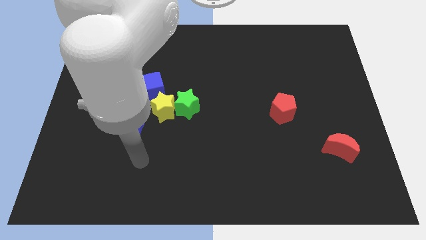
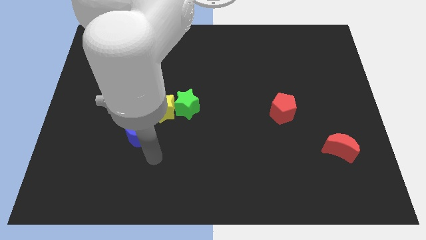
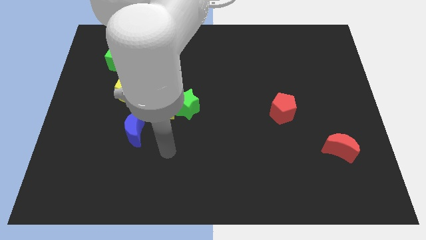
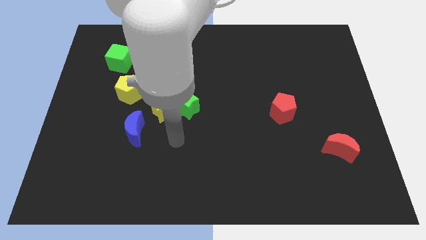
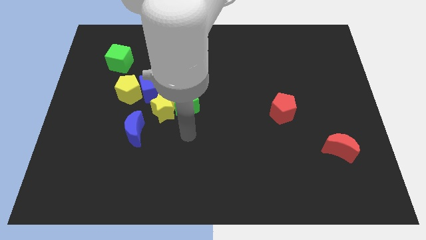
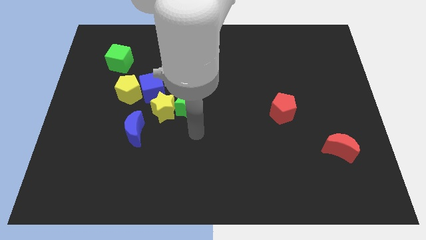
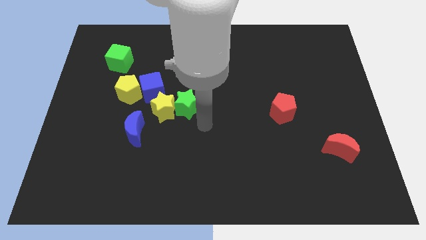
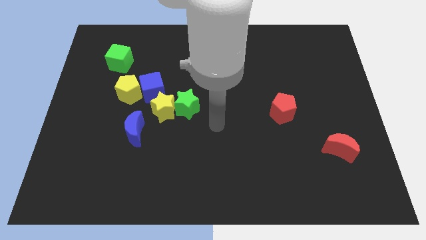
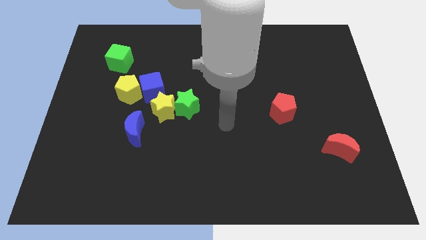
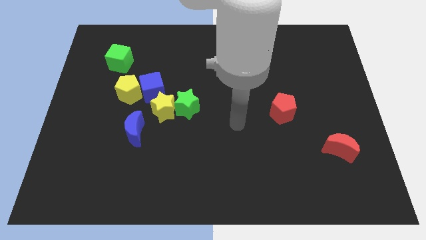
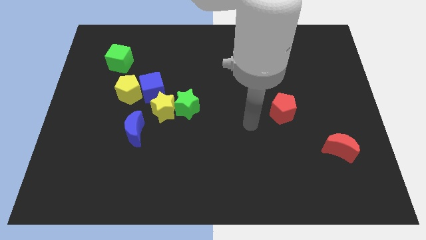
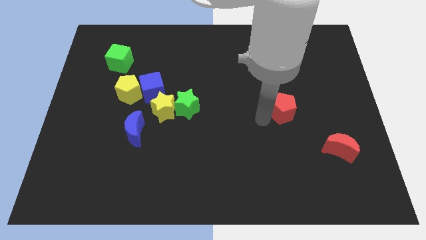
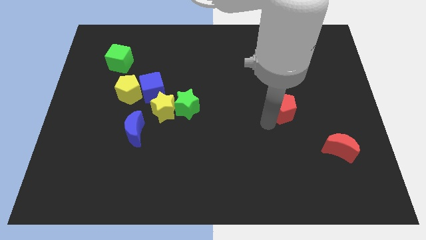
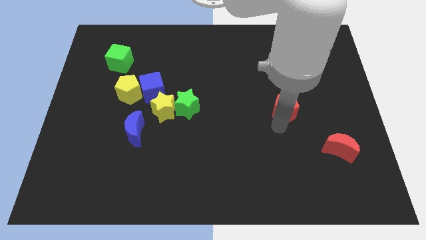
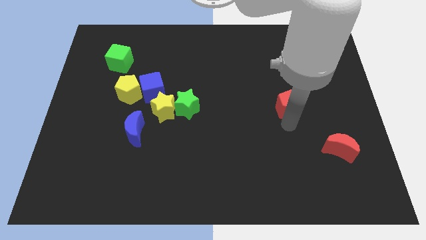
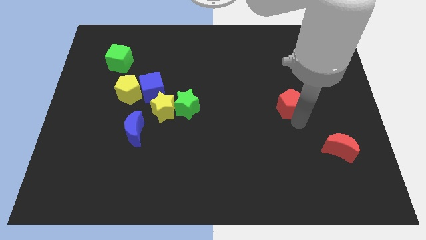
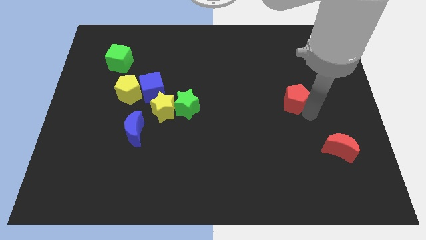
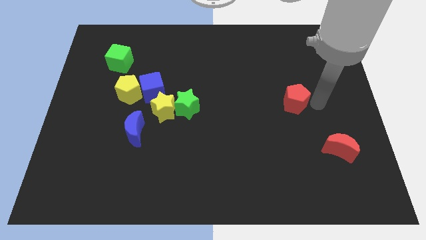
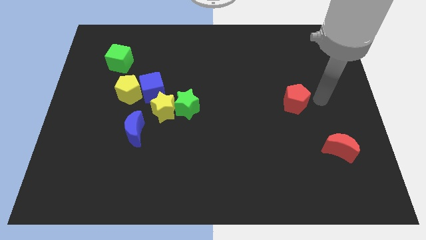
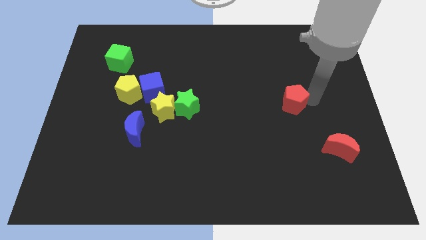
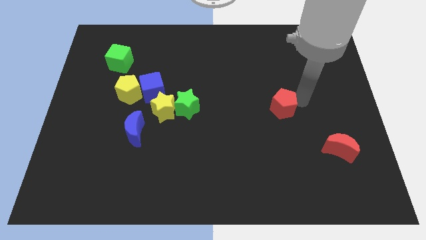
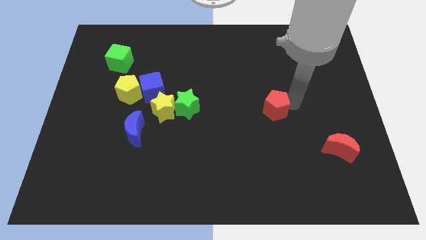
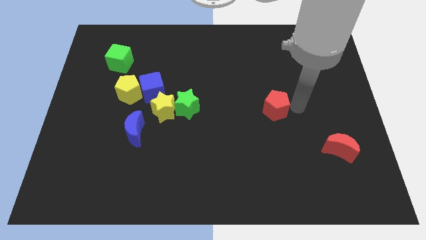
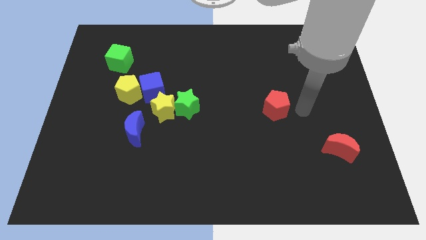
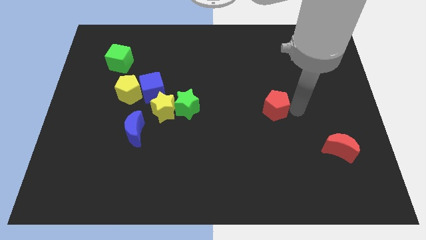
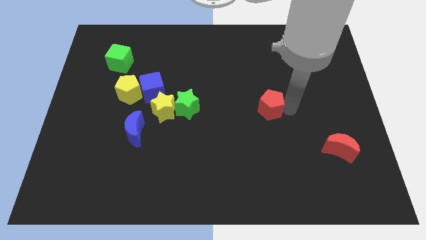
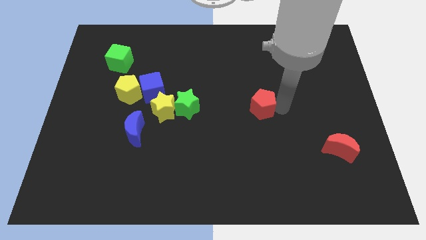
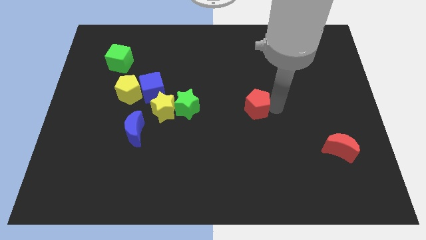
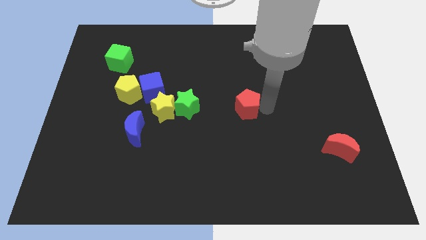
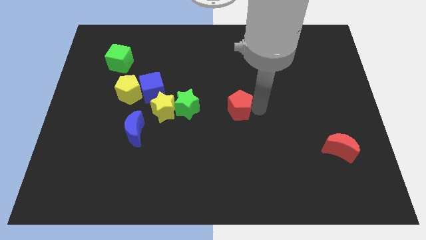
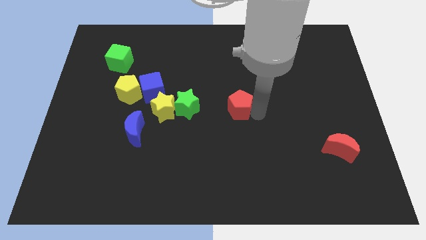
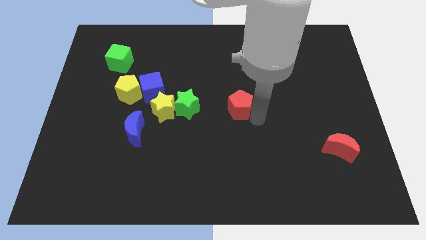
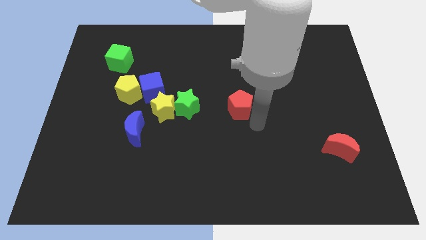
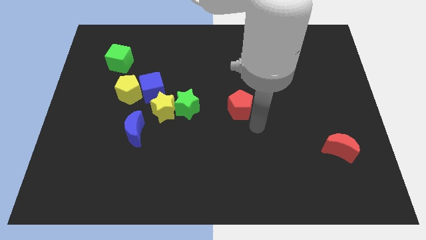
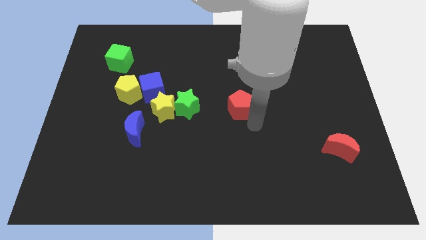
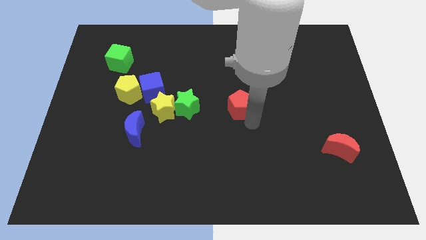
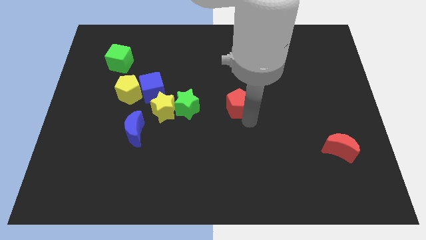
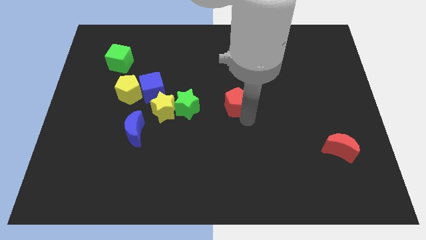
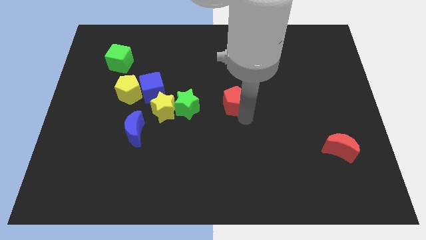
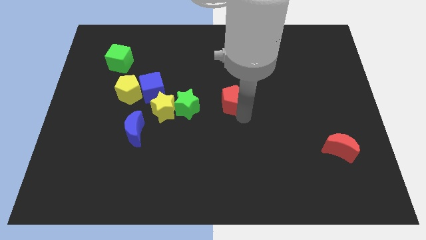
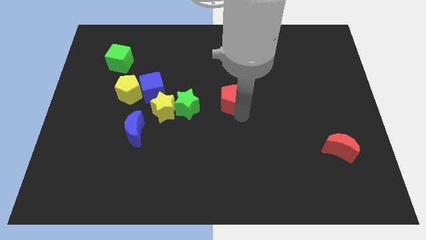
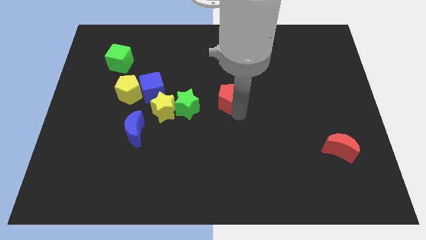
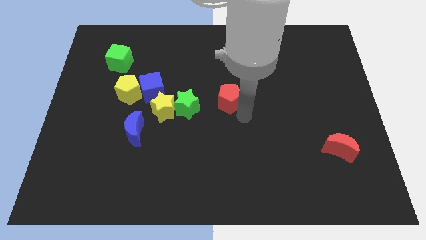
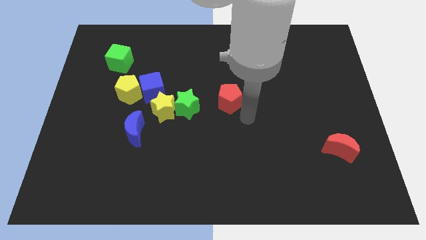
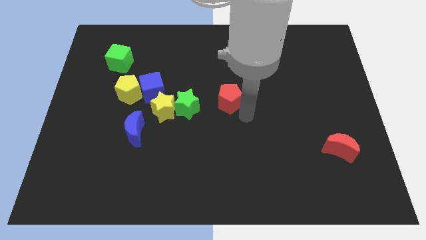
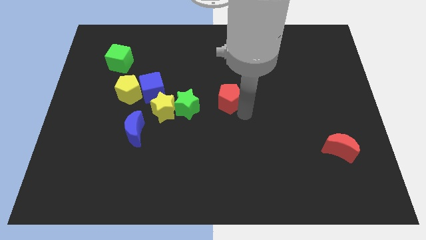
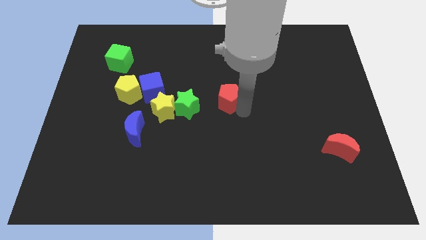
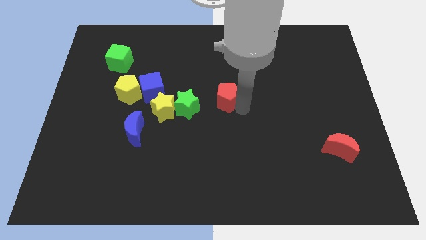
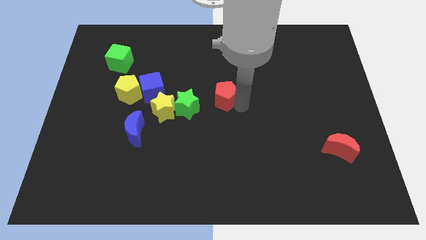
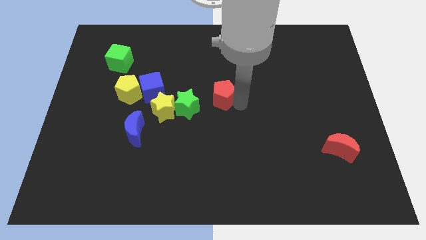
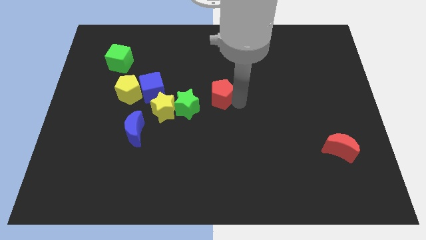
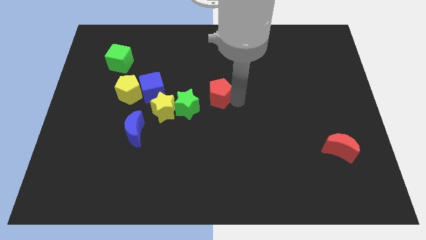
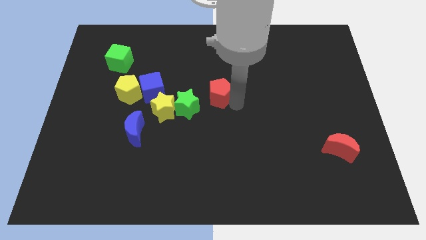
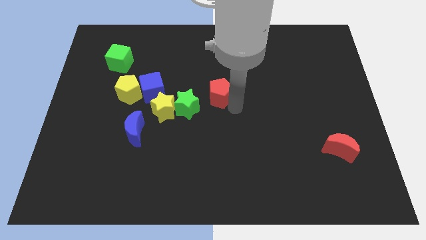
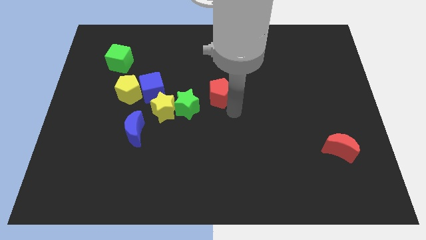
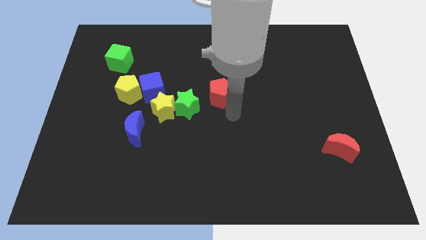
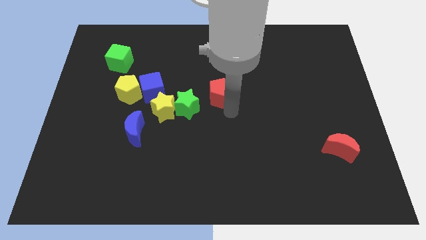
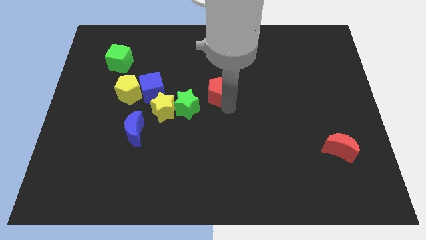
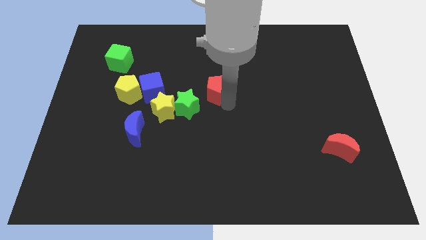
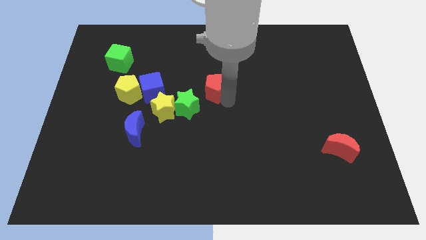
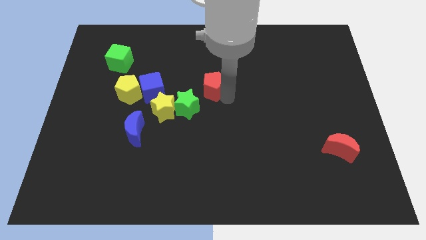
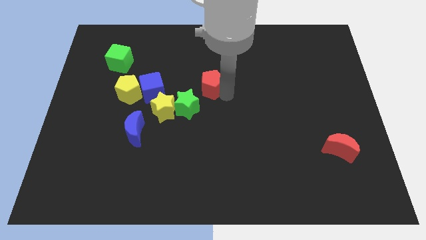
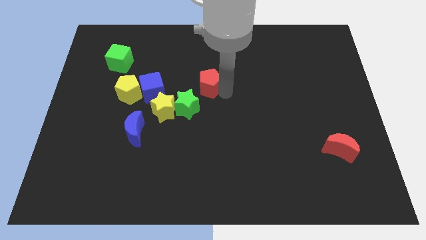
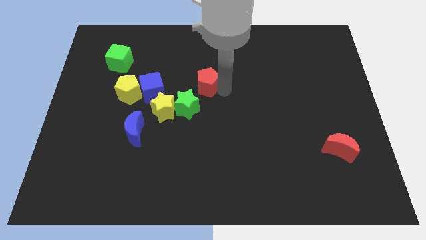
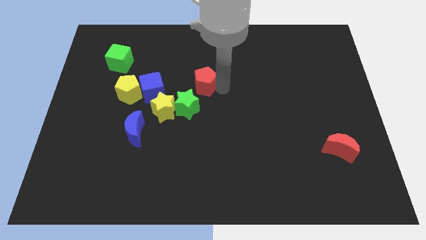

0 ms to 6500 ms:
move the red pentagon above the green star
